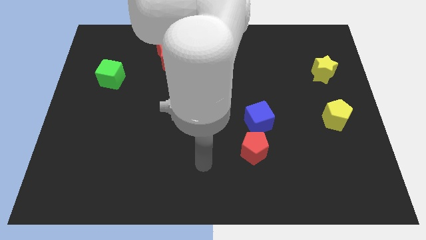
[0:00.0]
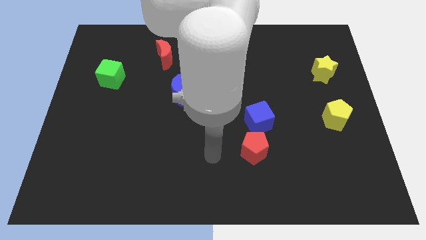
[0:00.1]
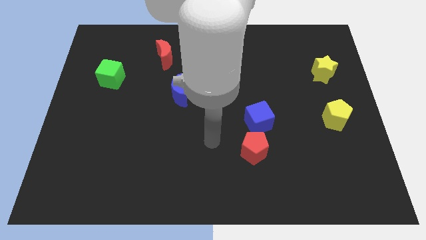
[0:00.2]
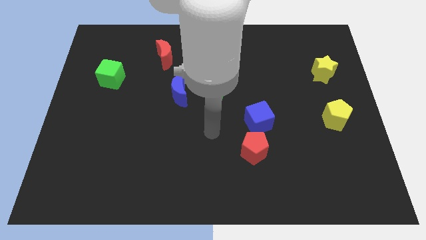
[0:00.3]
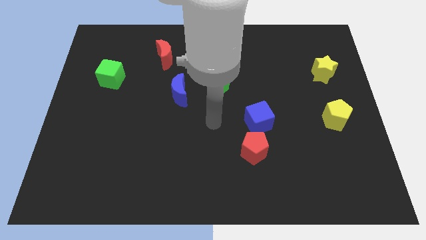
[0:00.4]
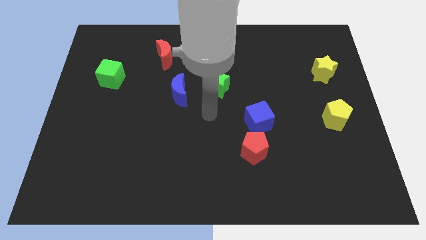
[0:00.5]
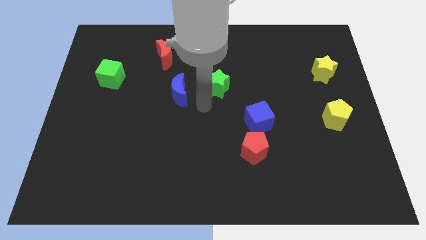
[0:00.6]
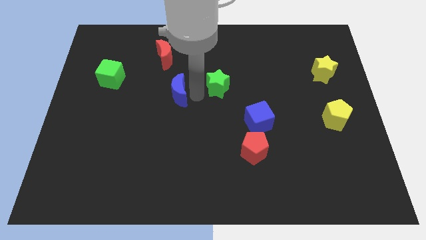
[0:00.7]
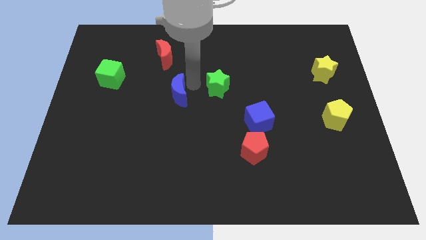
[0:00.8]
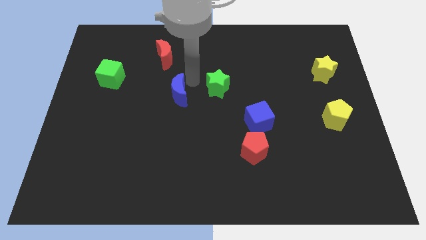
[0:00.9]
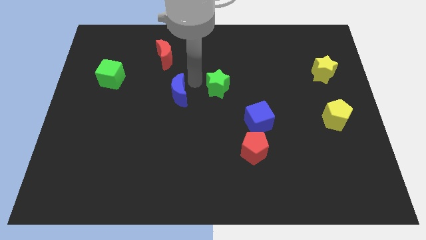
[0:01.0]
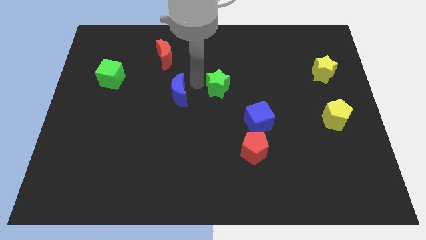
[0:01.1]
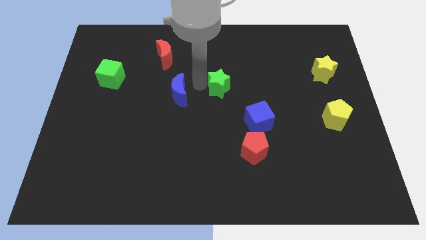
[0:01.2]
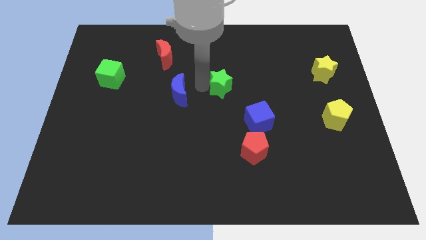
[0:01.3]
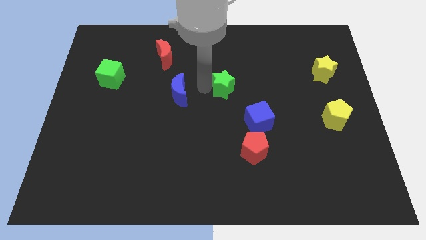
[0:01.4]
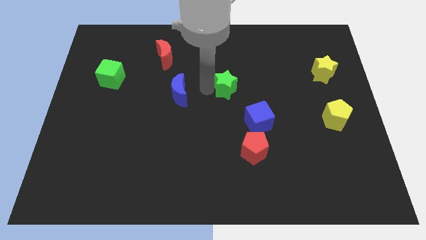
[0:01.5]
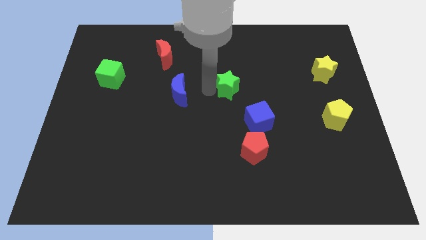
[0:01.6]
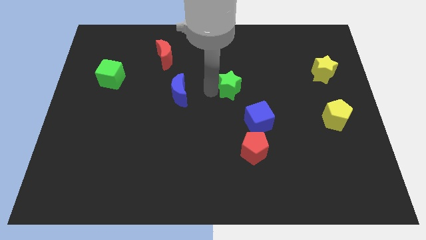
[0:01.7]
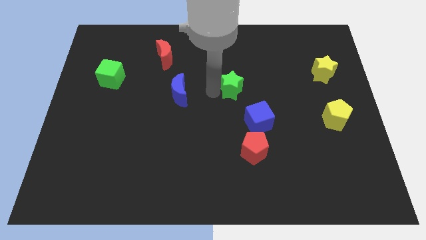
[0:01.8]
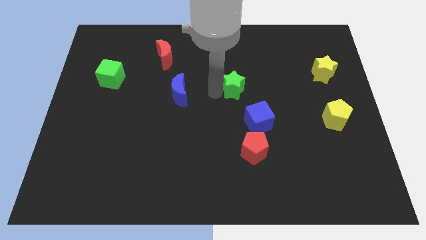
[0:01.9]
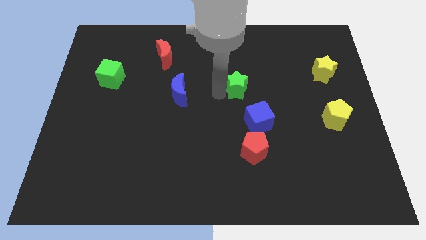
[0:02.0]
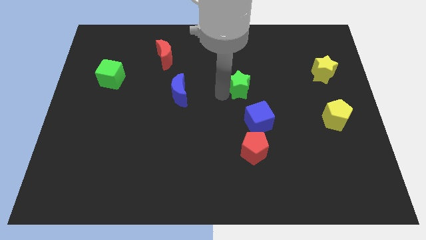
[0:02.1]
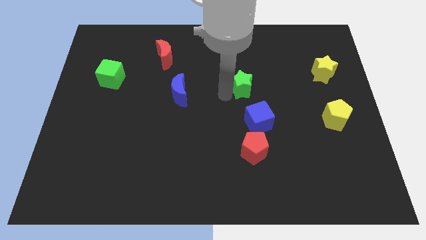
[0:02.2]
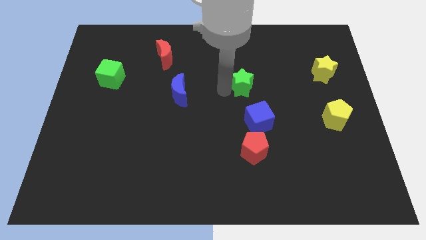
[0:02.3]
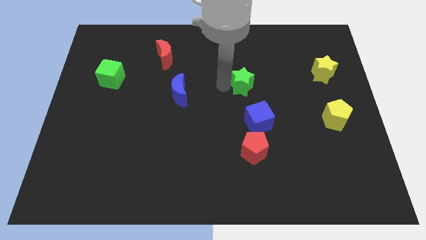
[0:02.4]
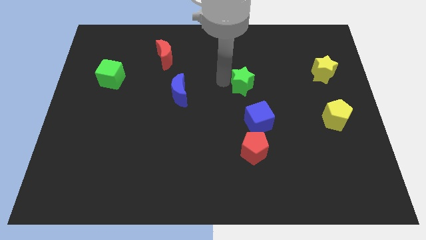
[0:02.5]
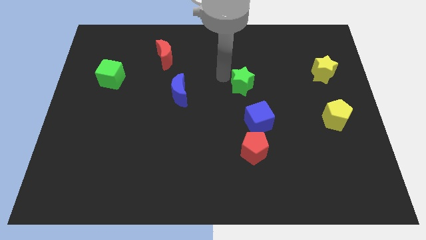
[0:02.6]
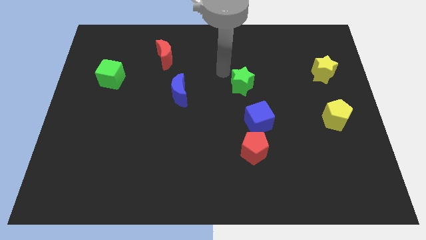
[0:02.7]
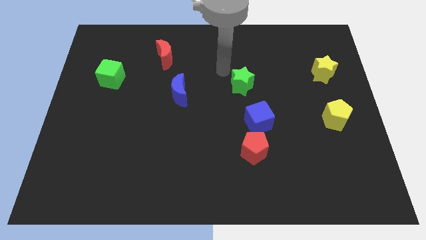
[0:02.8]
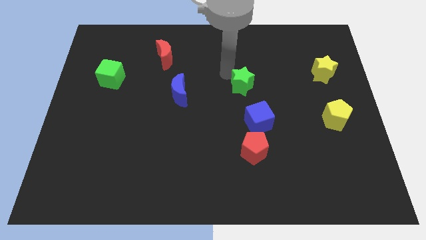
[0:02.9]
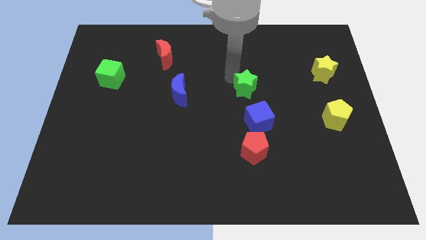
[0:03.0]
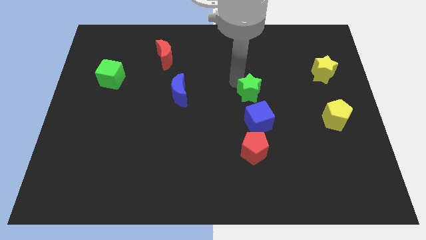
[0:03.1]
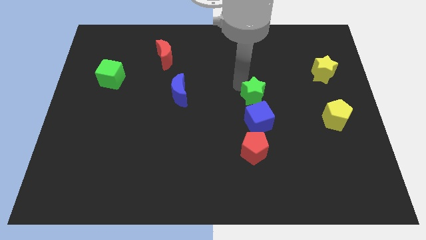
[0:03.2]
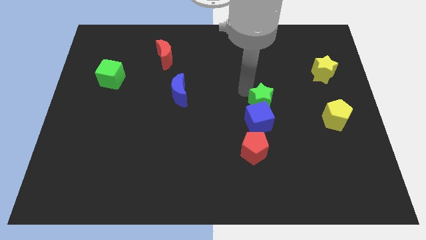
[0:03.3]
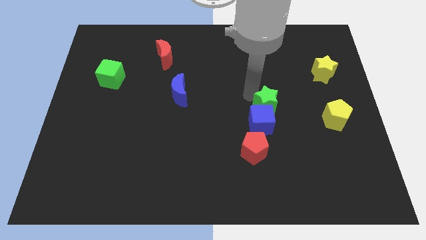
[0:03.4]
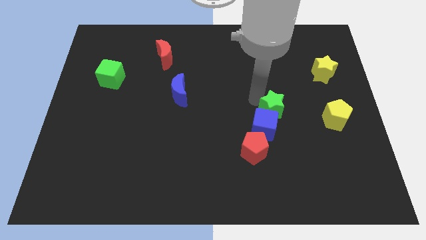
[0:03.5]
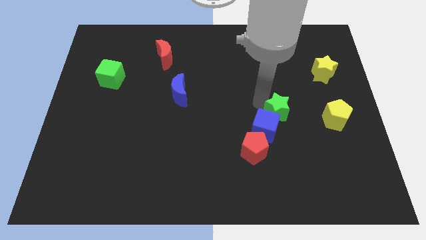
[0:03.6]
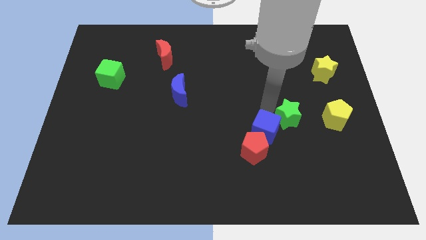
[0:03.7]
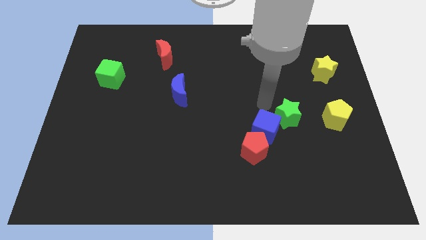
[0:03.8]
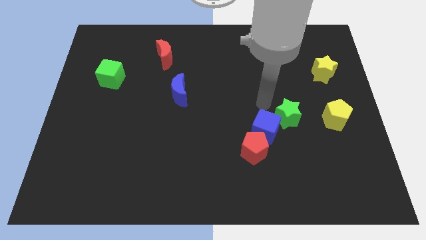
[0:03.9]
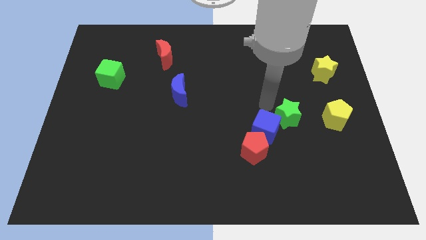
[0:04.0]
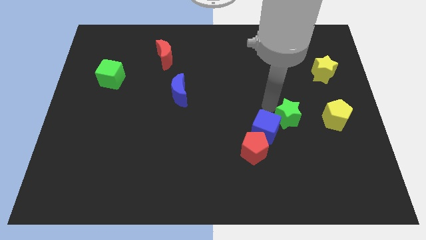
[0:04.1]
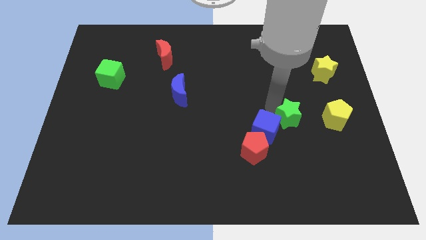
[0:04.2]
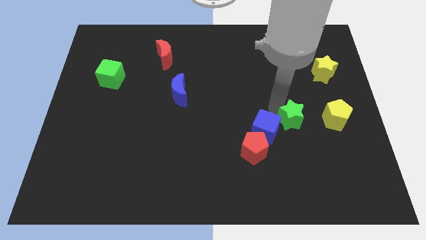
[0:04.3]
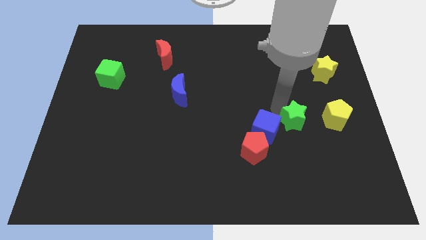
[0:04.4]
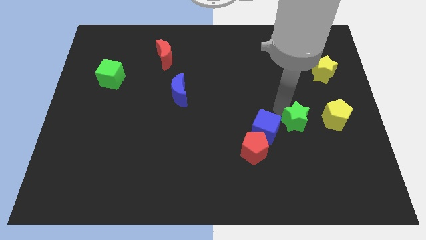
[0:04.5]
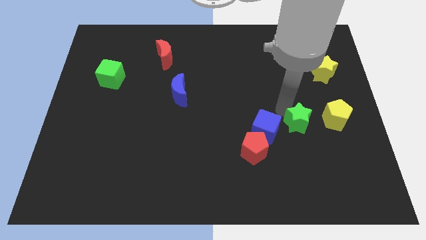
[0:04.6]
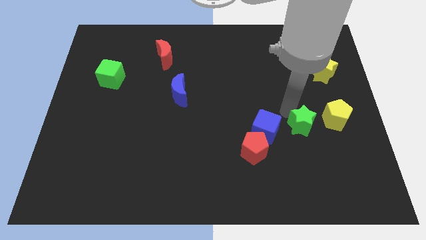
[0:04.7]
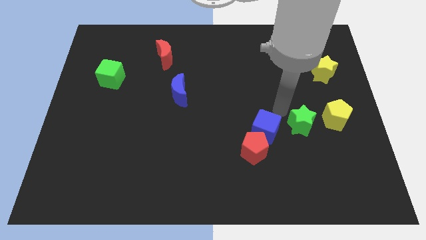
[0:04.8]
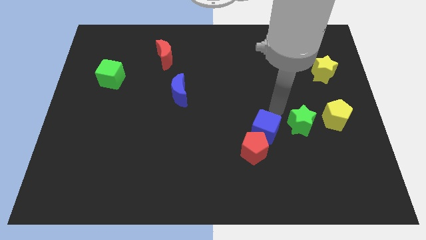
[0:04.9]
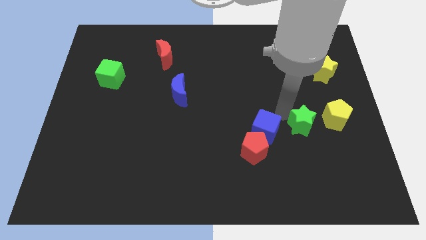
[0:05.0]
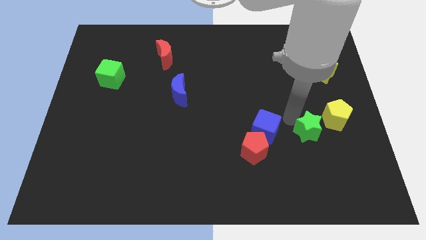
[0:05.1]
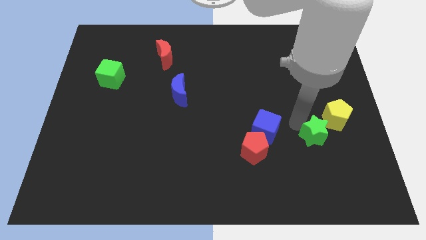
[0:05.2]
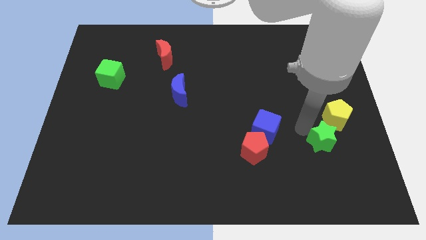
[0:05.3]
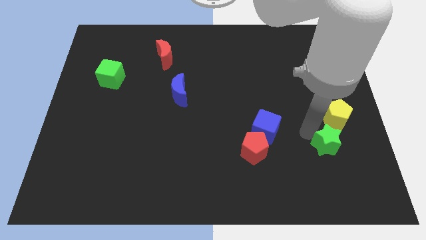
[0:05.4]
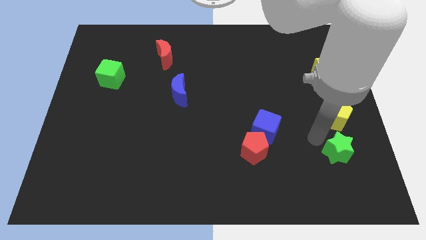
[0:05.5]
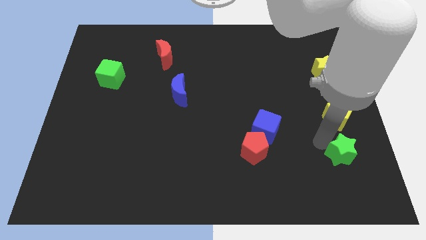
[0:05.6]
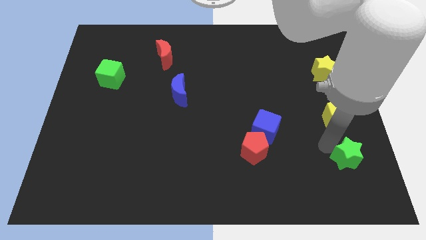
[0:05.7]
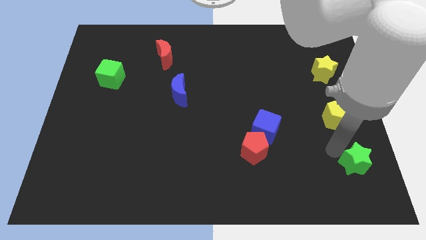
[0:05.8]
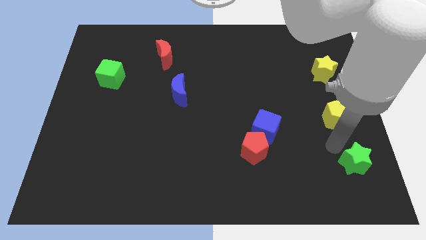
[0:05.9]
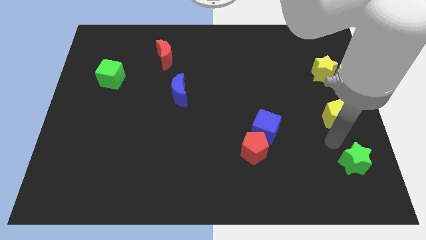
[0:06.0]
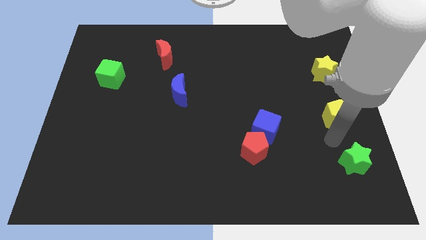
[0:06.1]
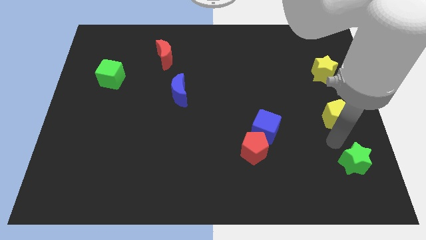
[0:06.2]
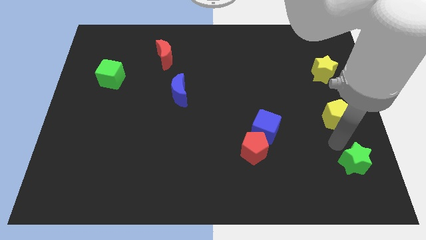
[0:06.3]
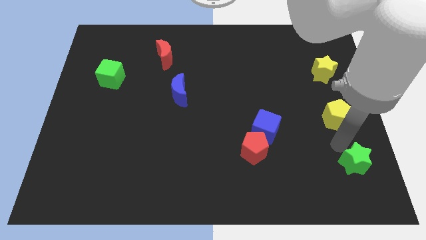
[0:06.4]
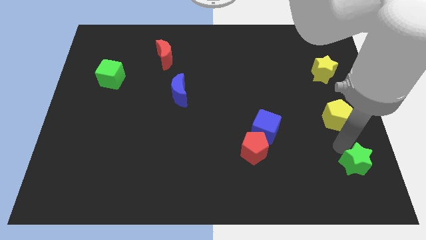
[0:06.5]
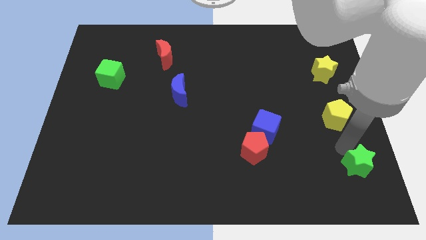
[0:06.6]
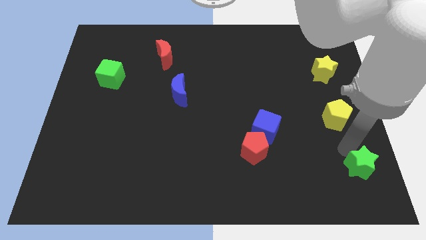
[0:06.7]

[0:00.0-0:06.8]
move the green star to the bottom right of the board
